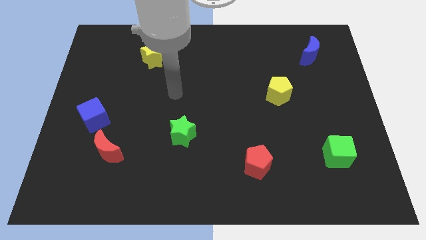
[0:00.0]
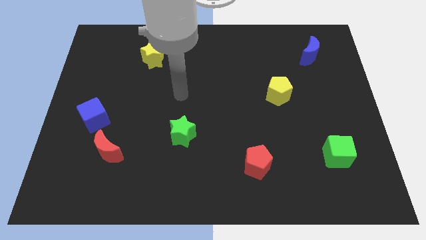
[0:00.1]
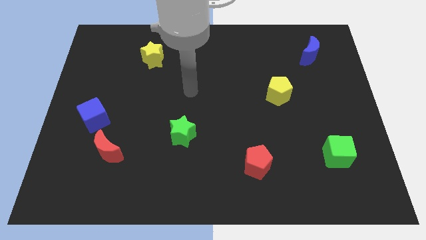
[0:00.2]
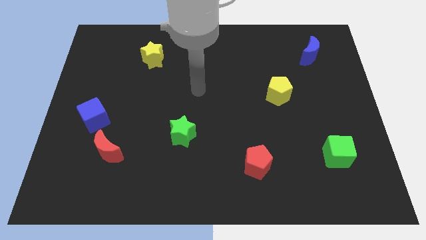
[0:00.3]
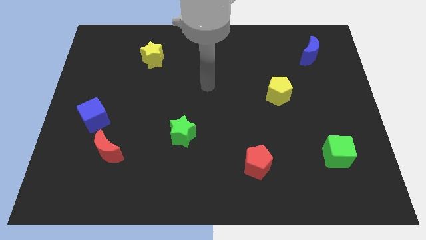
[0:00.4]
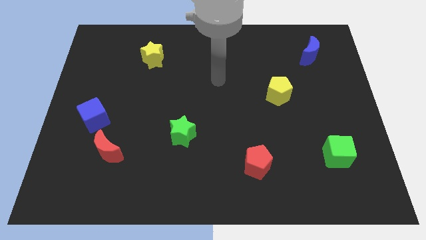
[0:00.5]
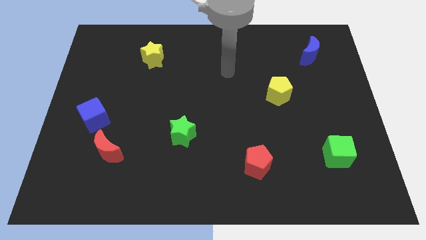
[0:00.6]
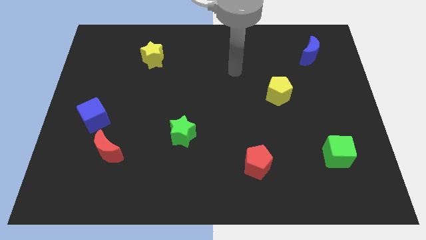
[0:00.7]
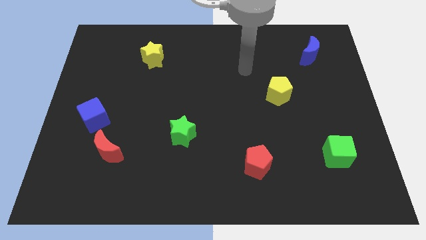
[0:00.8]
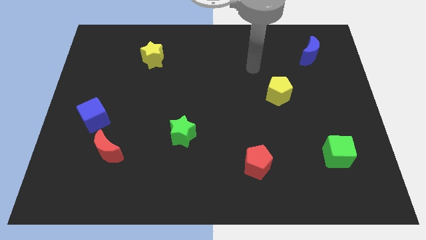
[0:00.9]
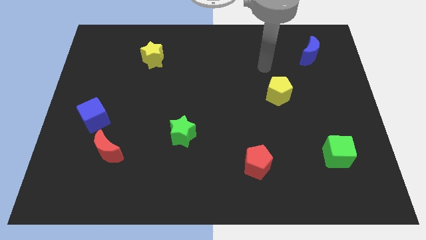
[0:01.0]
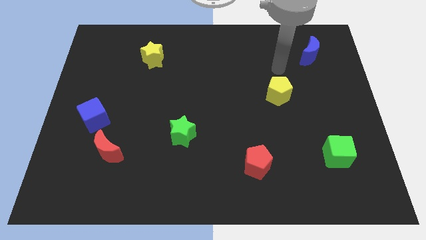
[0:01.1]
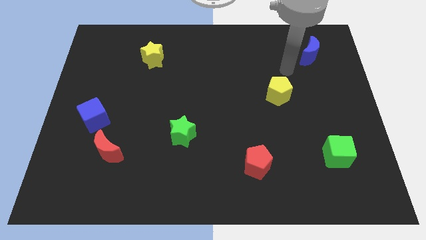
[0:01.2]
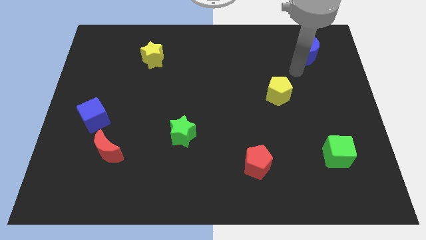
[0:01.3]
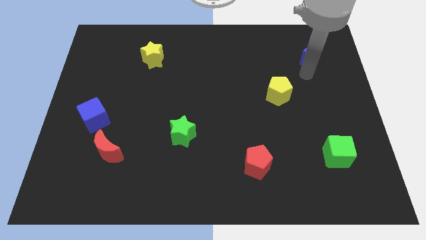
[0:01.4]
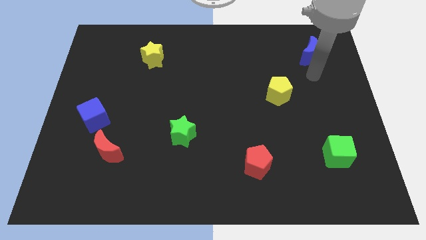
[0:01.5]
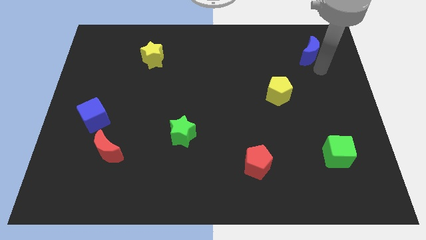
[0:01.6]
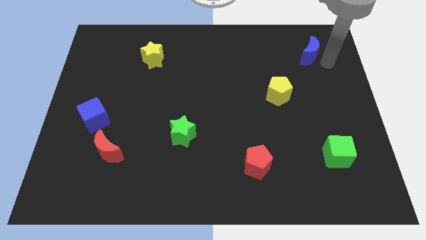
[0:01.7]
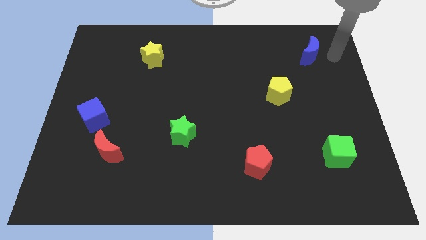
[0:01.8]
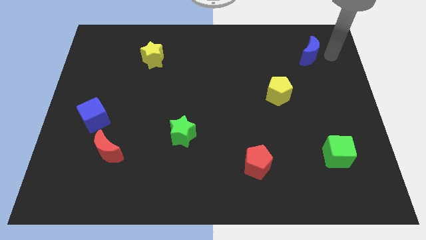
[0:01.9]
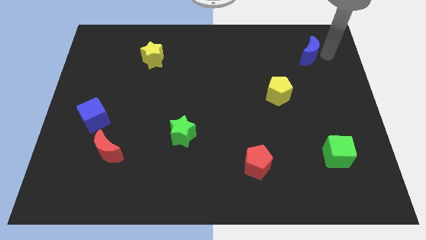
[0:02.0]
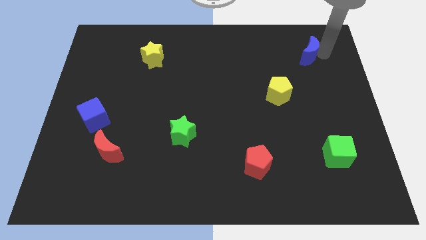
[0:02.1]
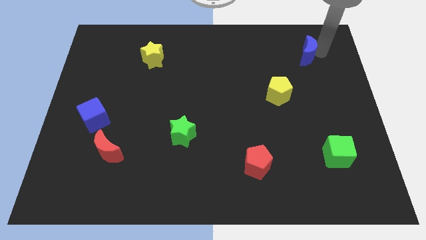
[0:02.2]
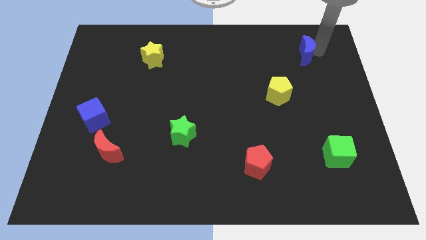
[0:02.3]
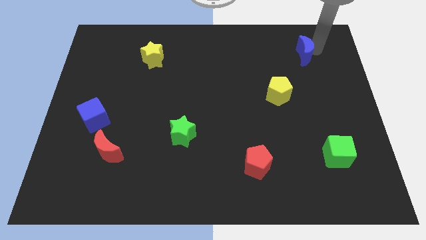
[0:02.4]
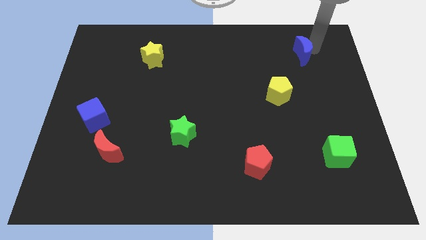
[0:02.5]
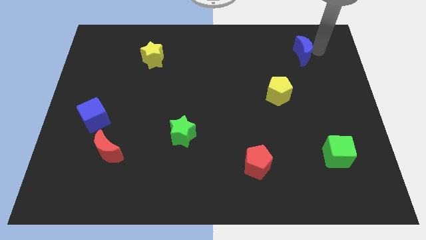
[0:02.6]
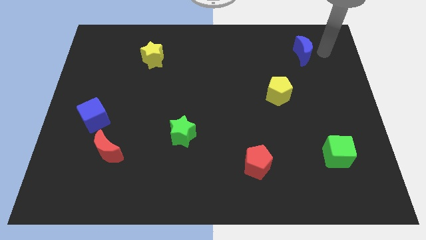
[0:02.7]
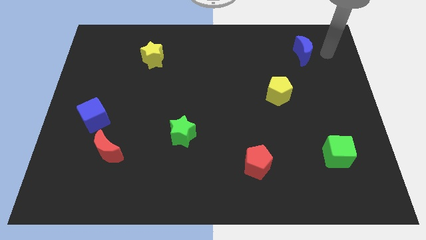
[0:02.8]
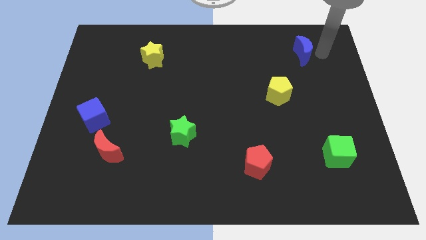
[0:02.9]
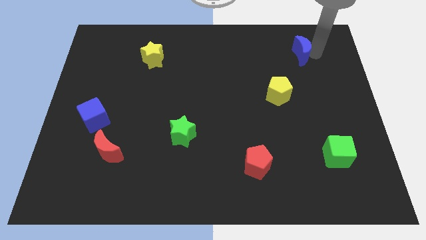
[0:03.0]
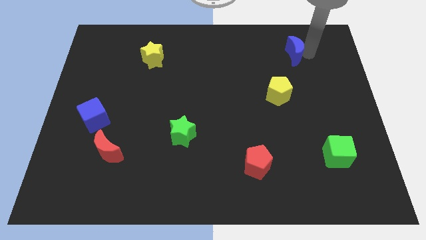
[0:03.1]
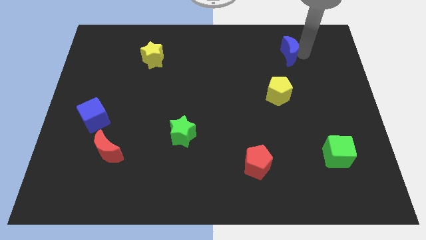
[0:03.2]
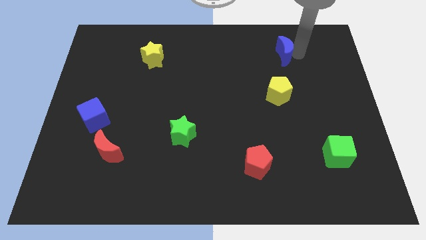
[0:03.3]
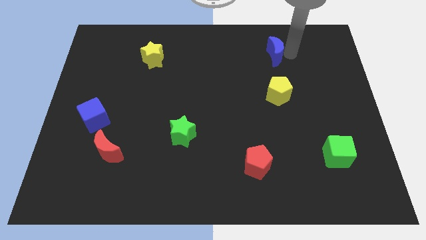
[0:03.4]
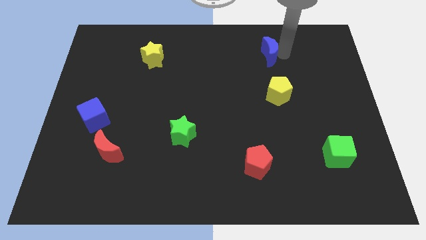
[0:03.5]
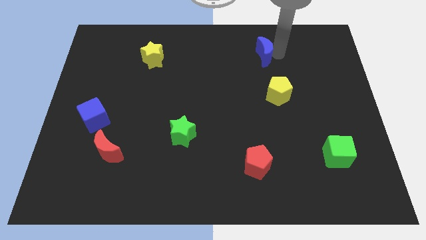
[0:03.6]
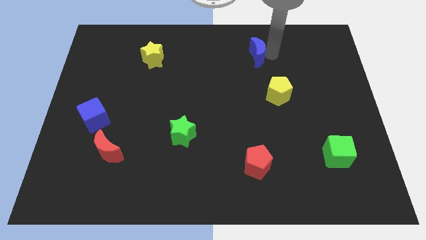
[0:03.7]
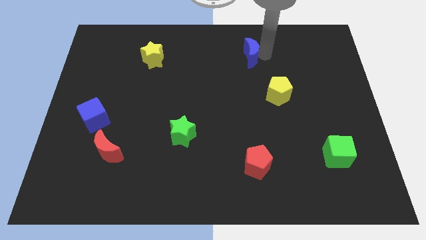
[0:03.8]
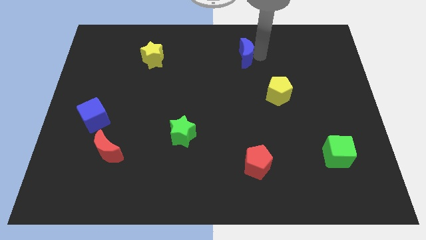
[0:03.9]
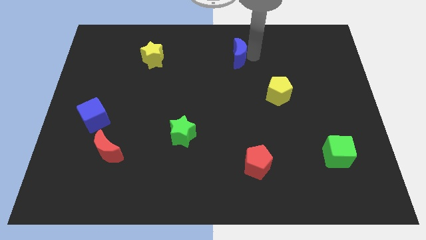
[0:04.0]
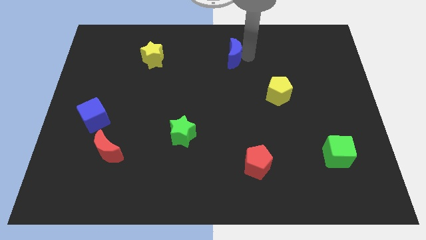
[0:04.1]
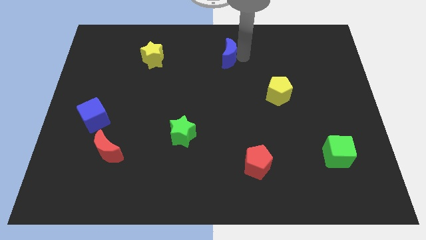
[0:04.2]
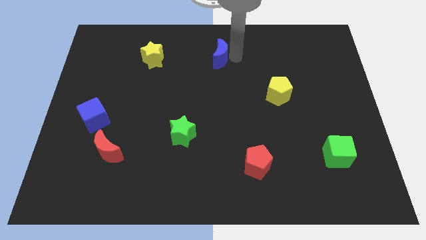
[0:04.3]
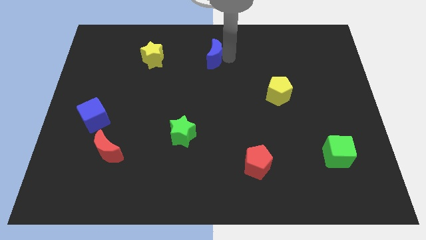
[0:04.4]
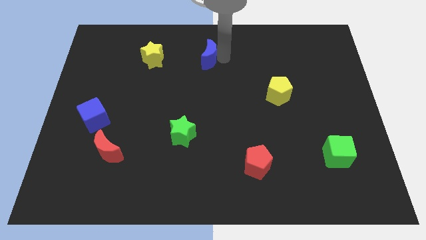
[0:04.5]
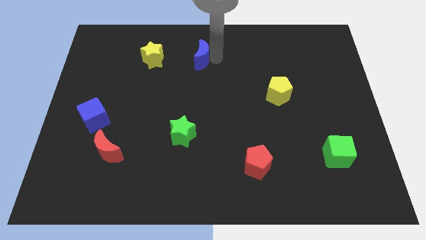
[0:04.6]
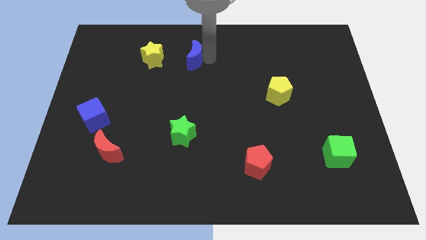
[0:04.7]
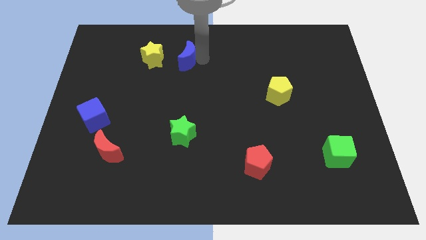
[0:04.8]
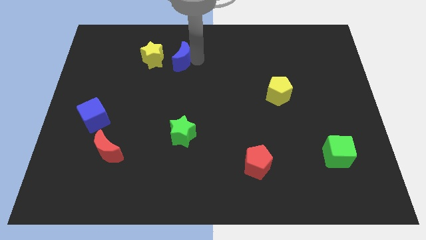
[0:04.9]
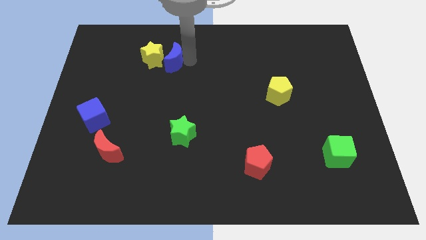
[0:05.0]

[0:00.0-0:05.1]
move the blue moon towards the yellow star

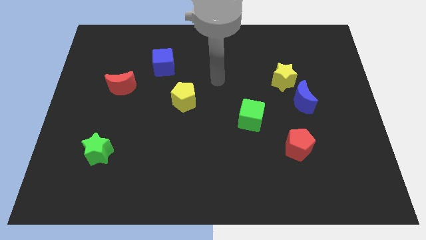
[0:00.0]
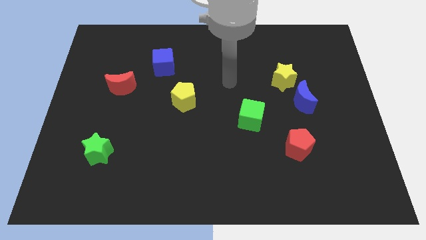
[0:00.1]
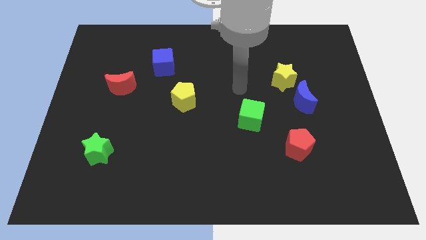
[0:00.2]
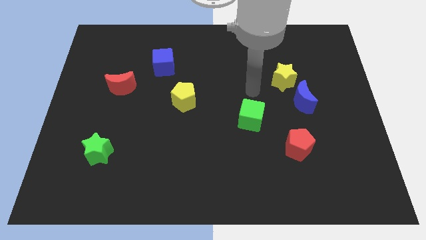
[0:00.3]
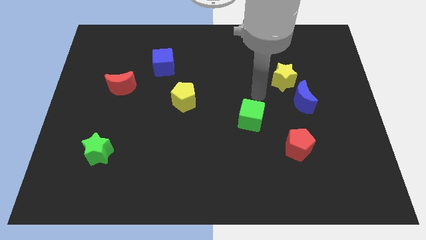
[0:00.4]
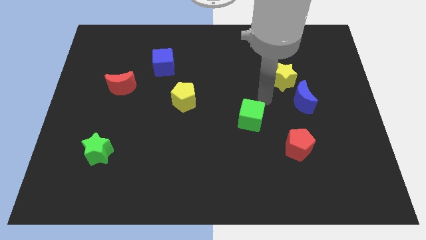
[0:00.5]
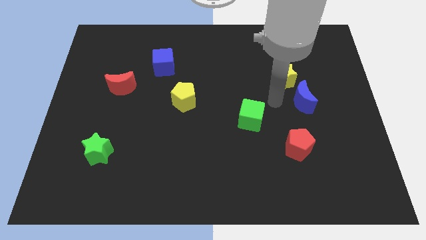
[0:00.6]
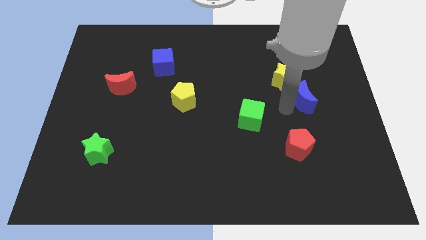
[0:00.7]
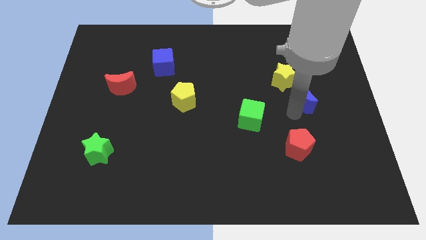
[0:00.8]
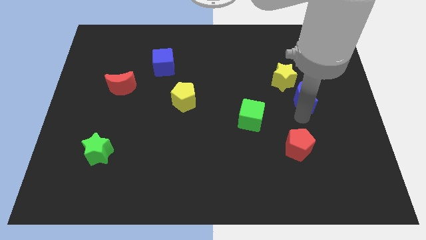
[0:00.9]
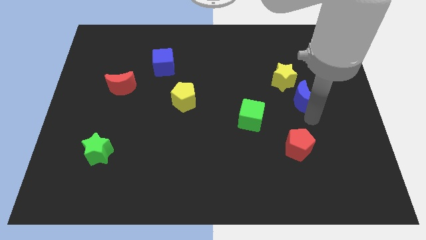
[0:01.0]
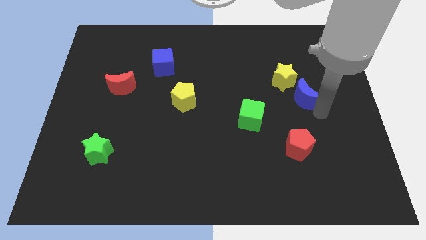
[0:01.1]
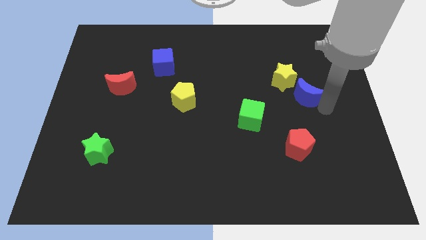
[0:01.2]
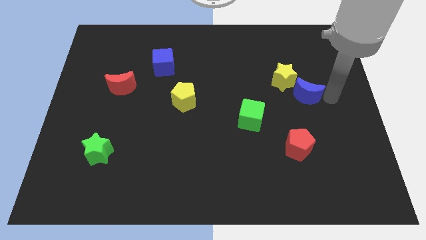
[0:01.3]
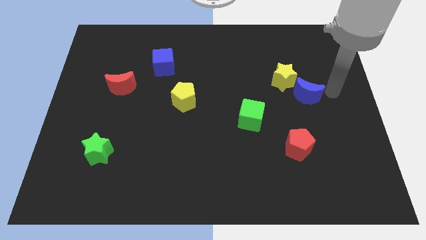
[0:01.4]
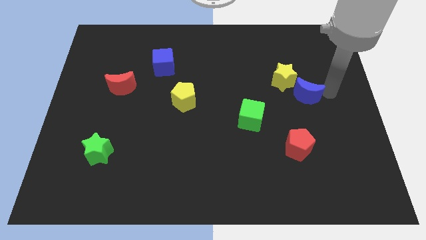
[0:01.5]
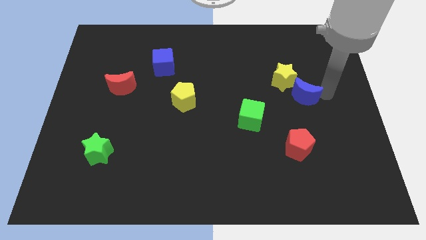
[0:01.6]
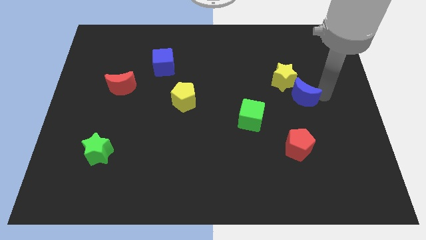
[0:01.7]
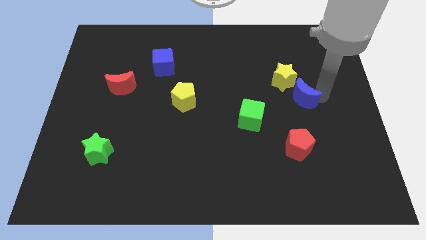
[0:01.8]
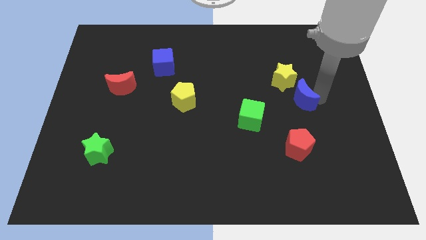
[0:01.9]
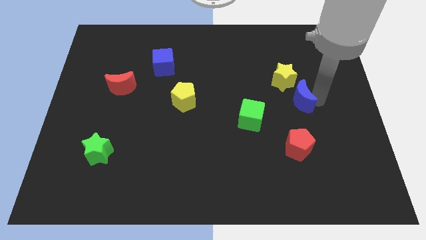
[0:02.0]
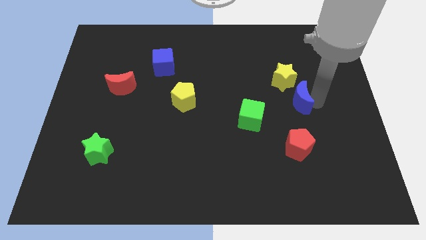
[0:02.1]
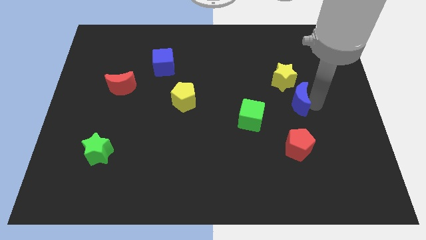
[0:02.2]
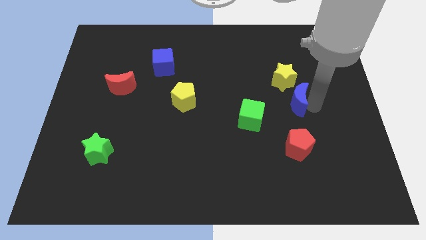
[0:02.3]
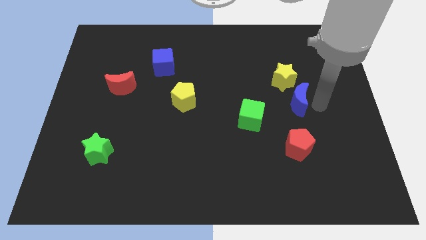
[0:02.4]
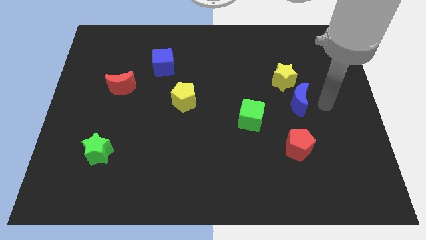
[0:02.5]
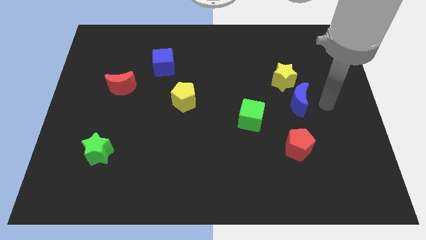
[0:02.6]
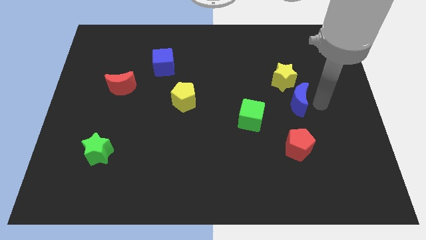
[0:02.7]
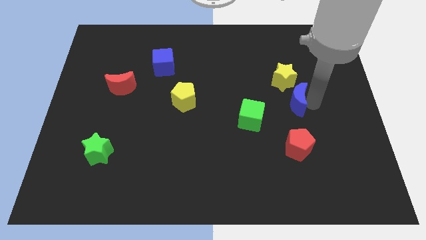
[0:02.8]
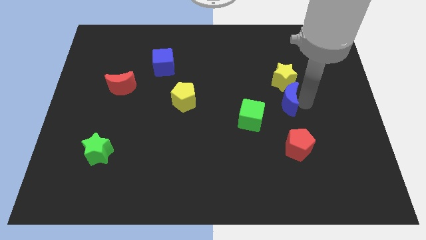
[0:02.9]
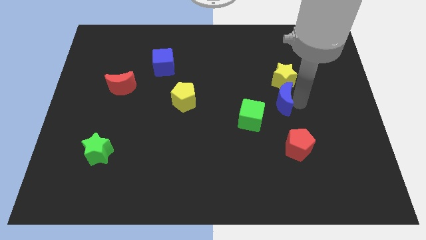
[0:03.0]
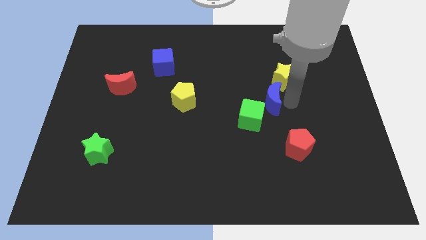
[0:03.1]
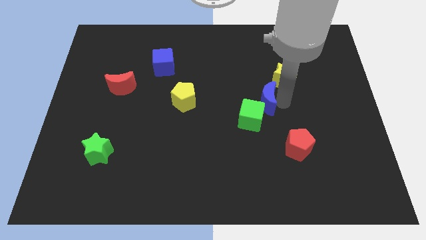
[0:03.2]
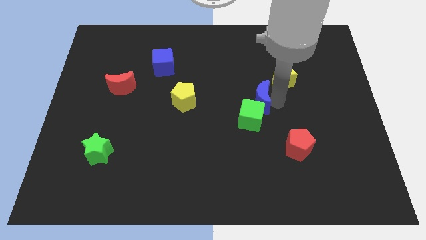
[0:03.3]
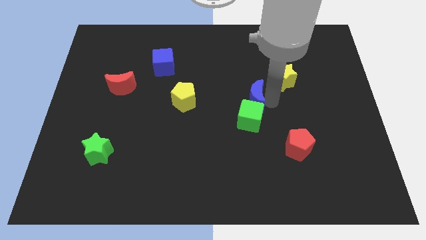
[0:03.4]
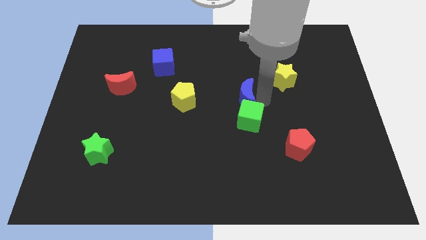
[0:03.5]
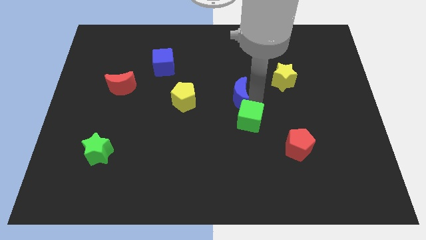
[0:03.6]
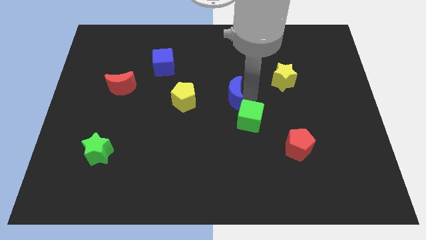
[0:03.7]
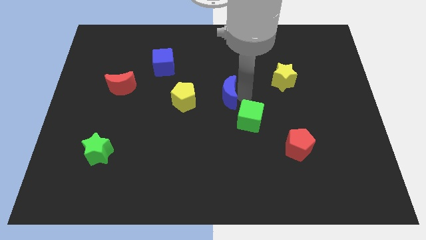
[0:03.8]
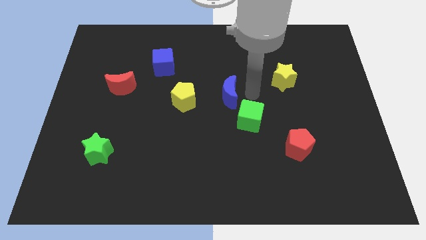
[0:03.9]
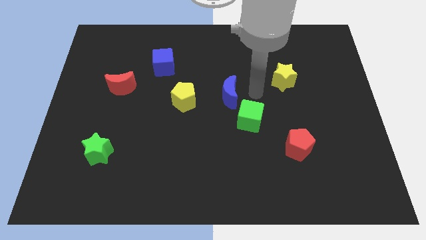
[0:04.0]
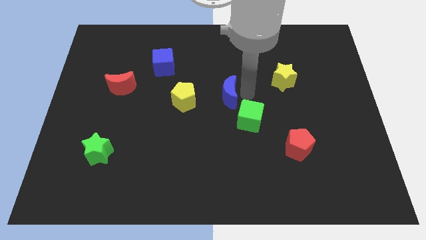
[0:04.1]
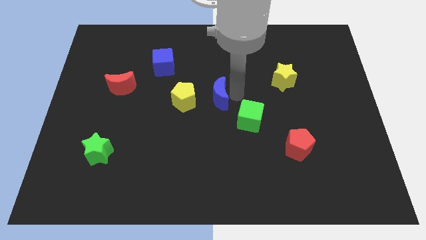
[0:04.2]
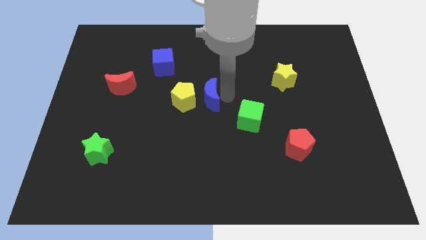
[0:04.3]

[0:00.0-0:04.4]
move the blue moon to the yellow pentagon
